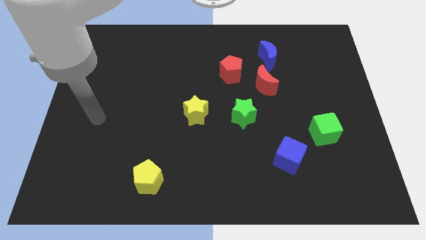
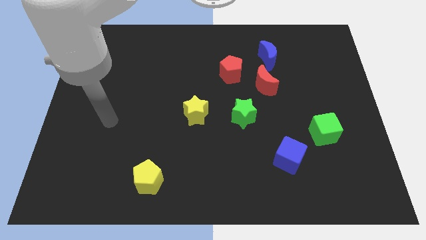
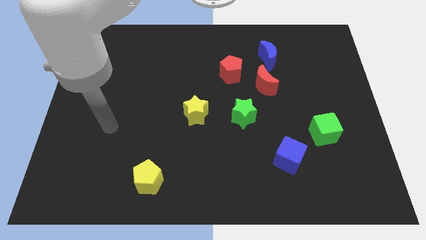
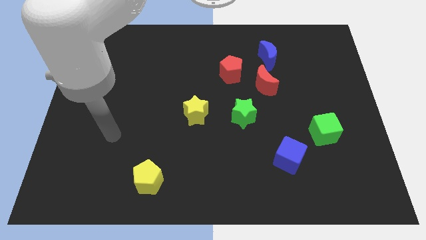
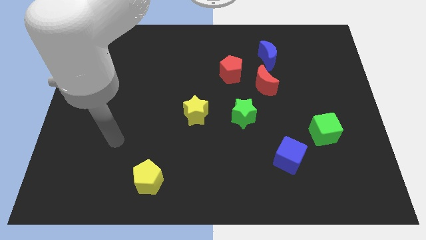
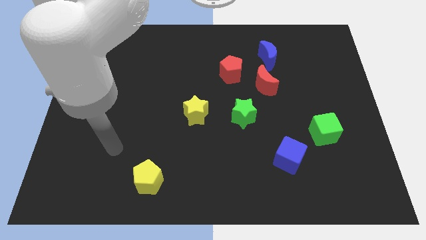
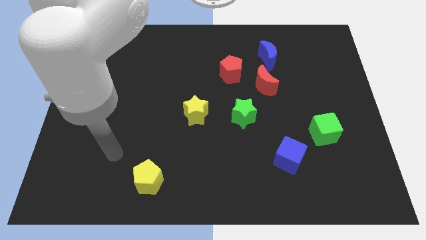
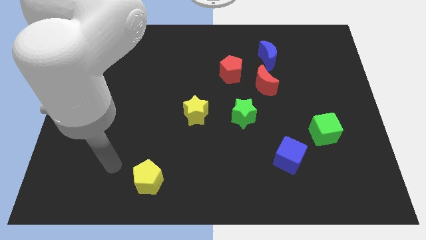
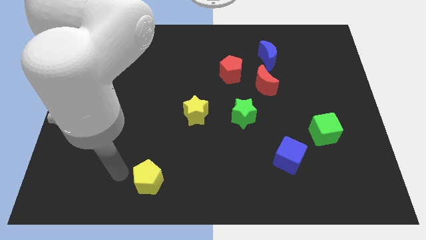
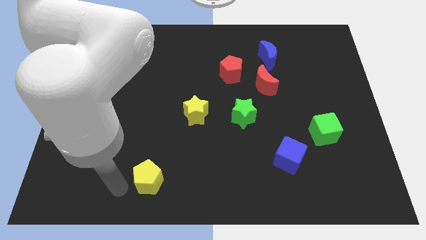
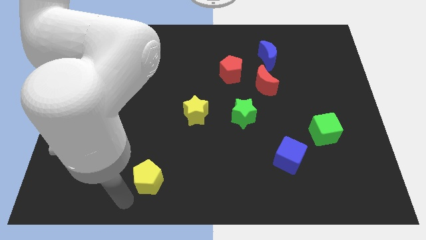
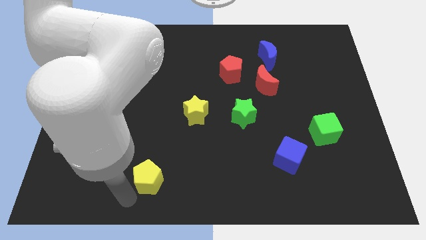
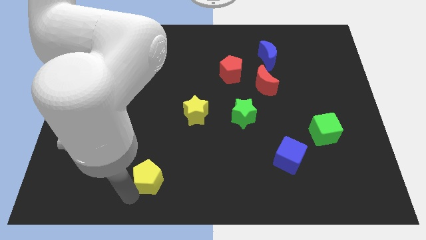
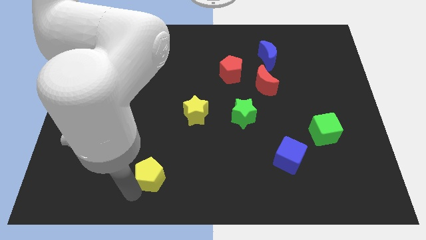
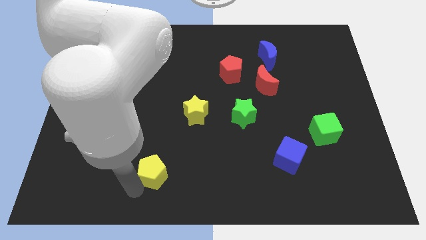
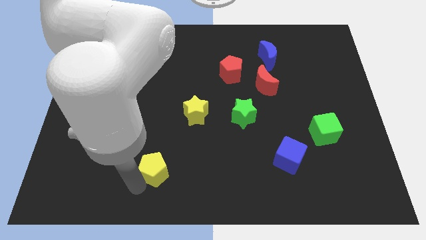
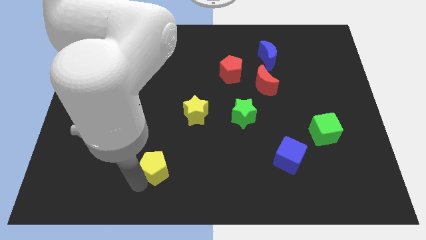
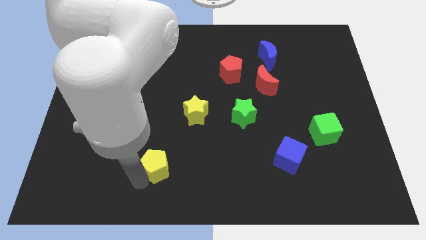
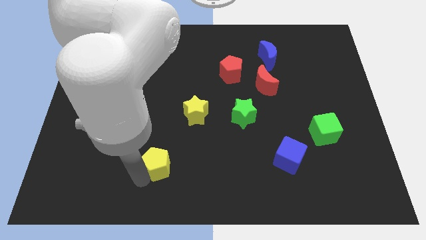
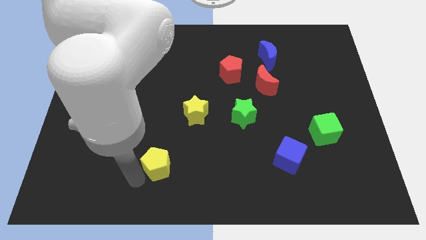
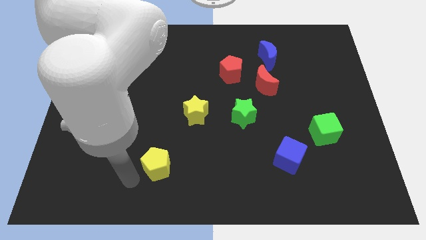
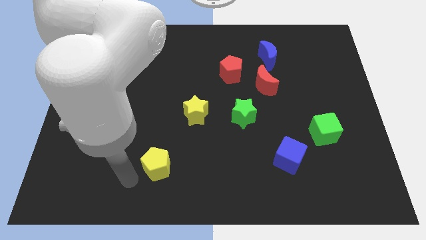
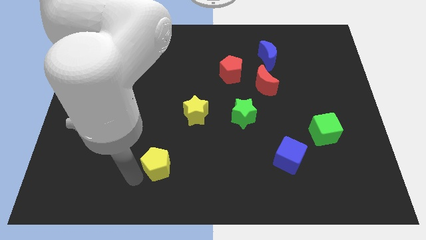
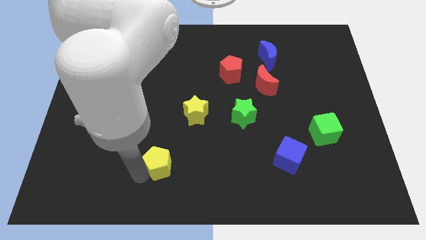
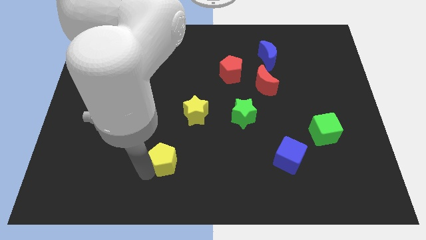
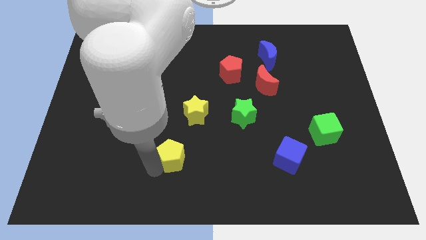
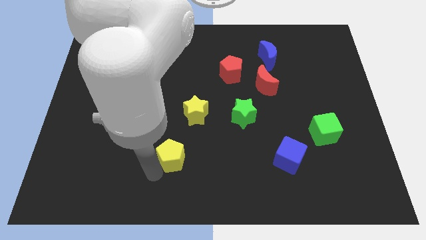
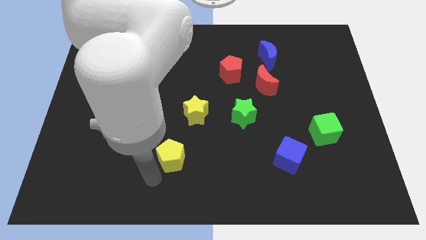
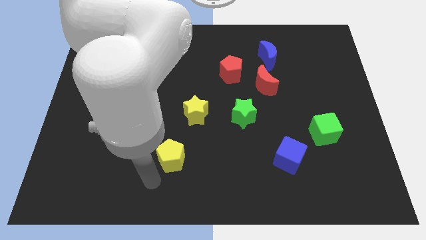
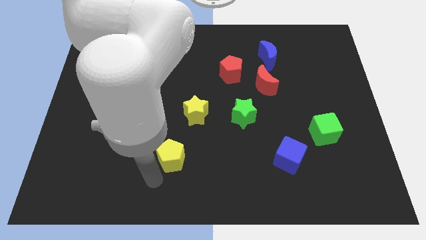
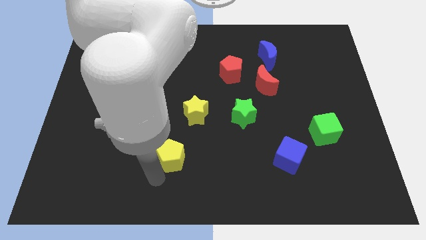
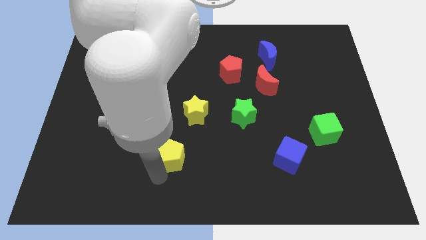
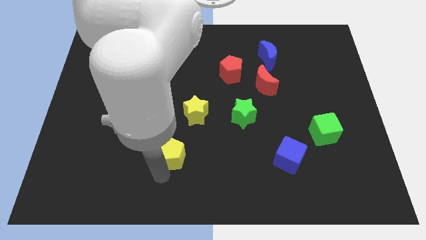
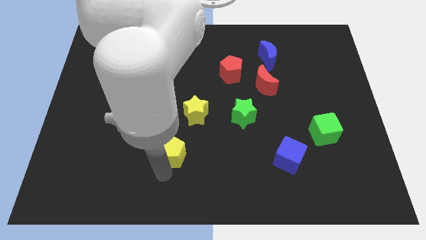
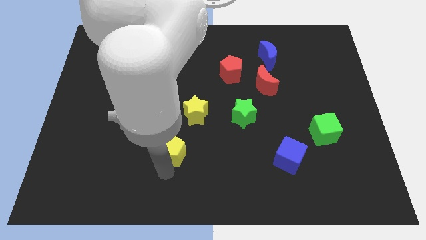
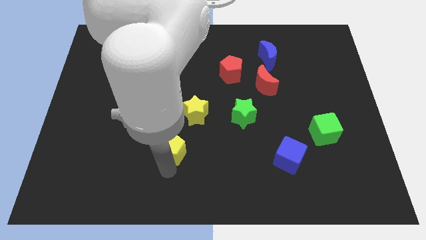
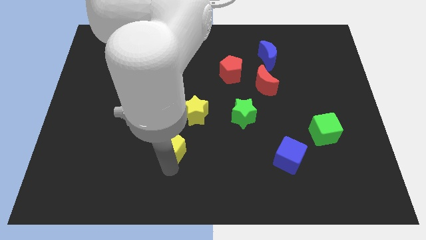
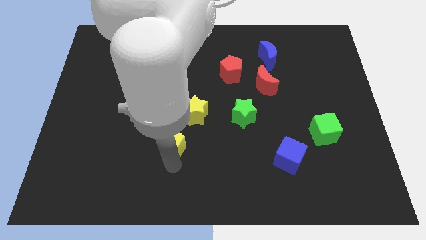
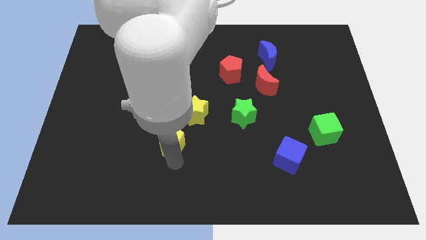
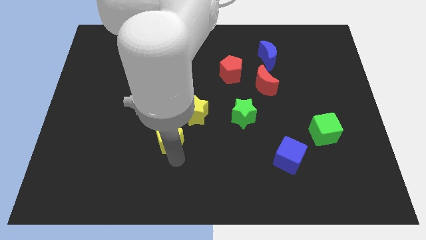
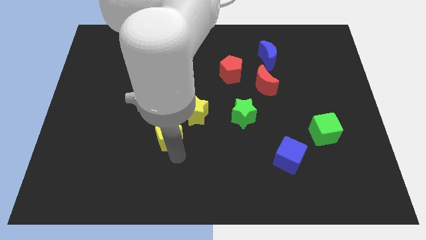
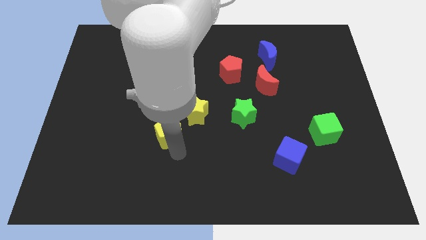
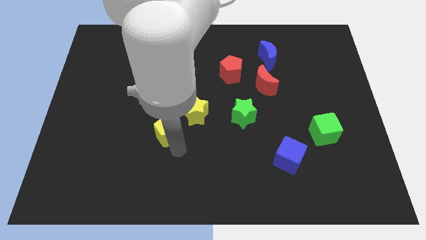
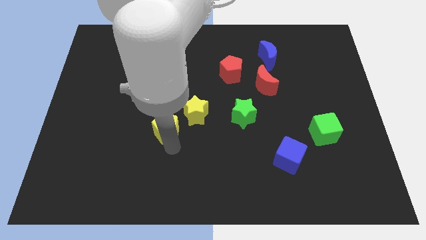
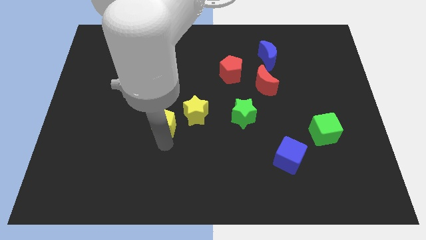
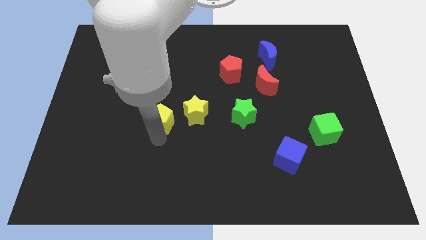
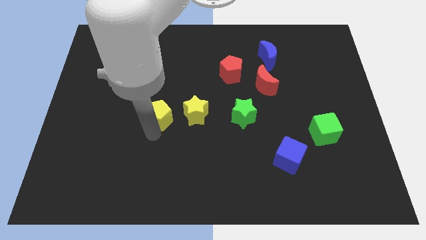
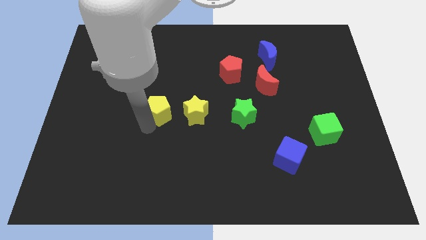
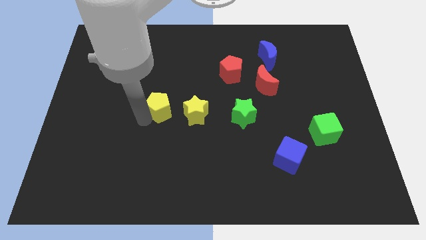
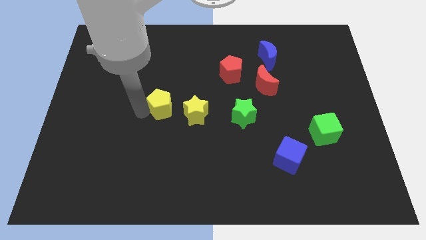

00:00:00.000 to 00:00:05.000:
move the yellow pentagon to the middle
